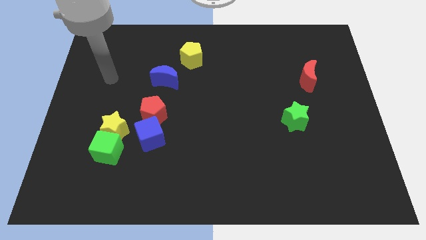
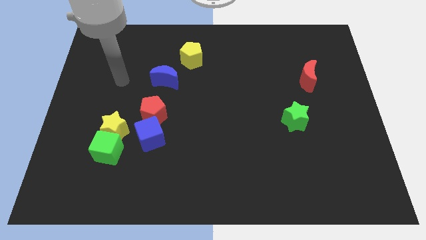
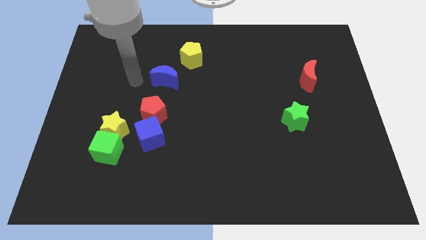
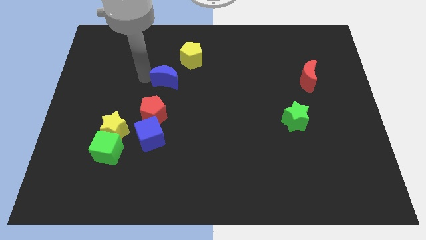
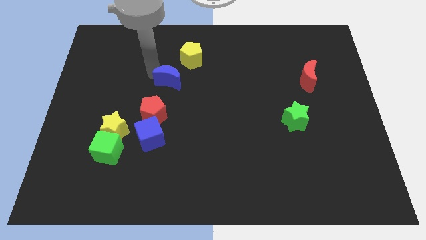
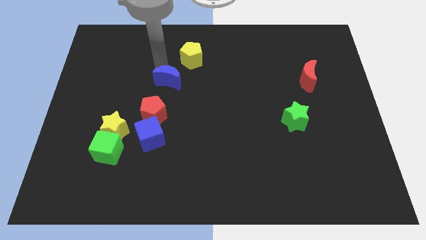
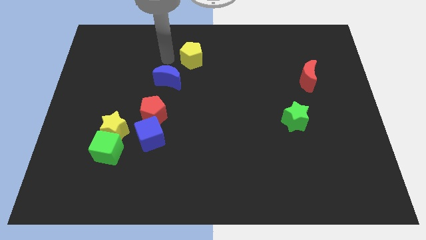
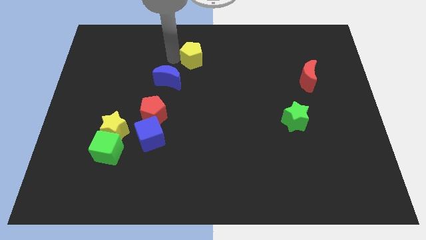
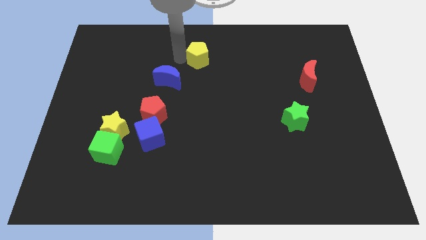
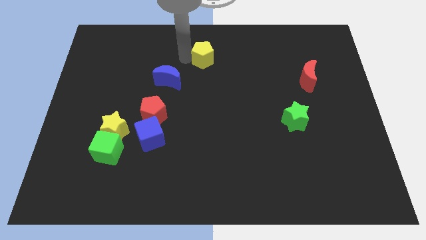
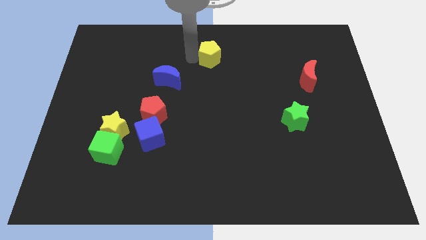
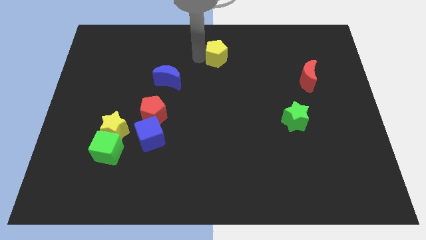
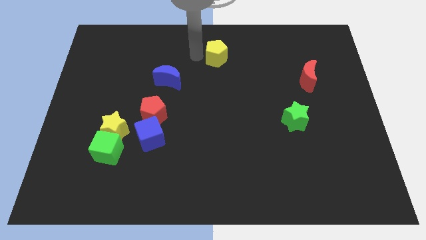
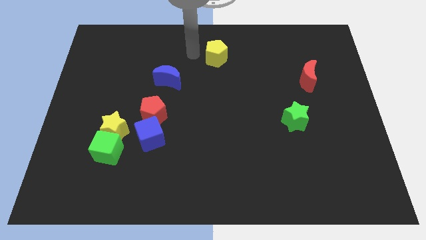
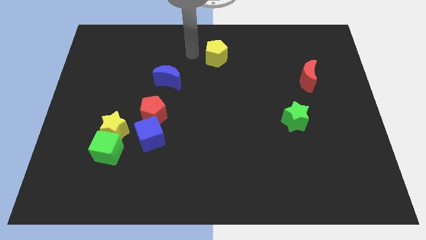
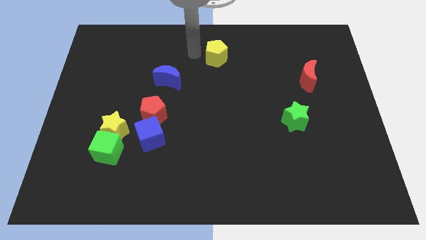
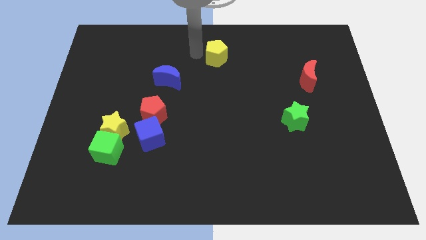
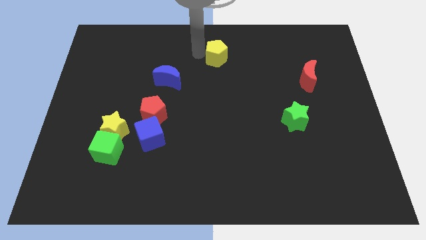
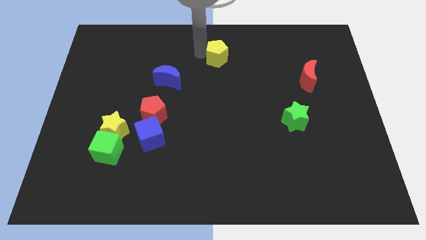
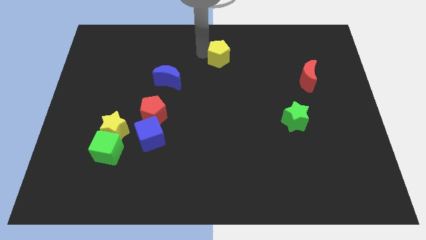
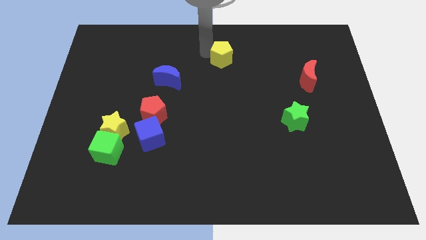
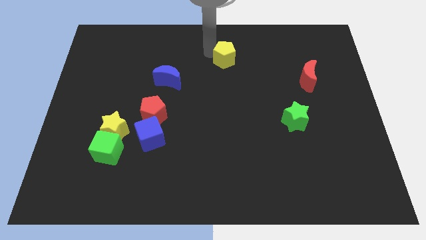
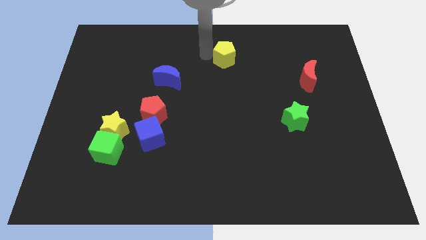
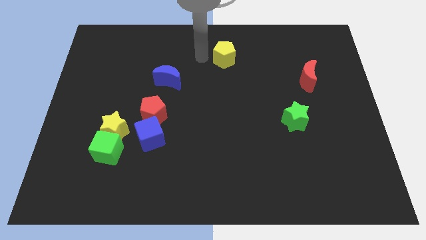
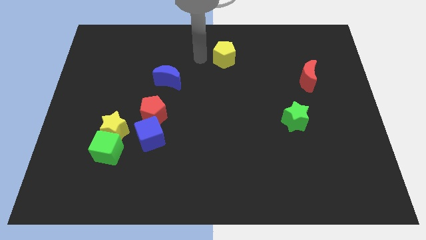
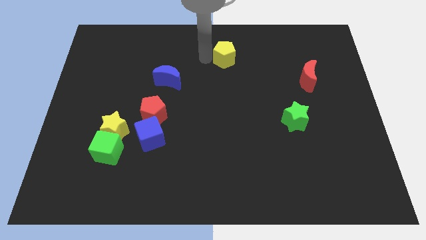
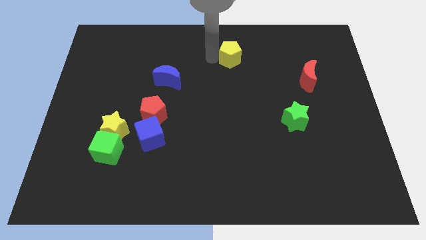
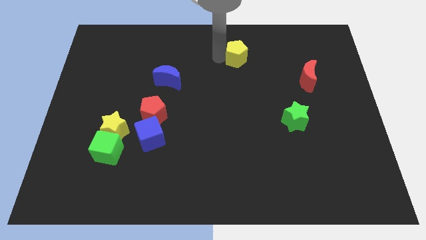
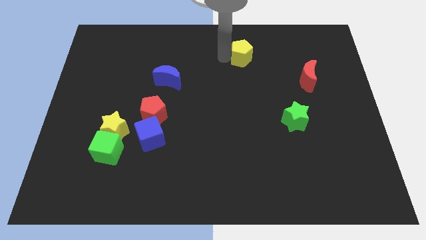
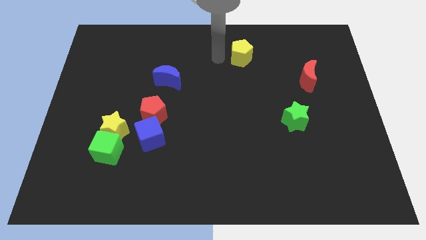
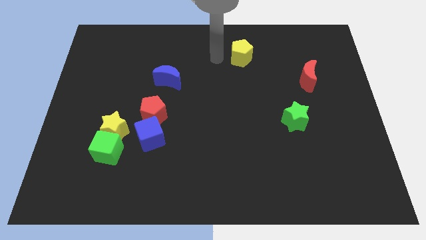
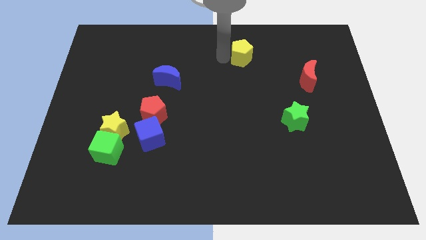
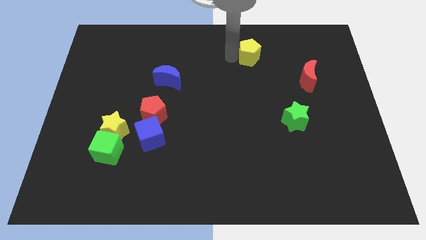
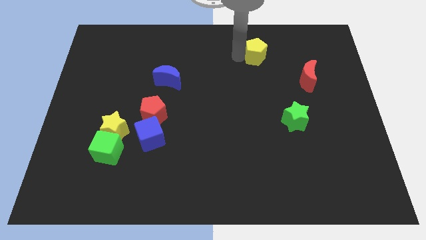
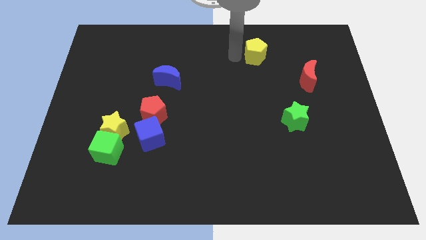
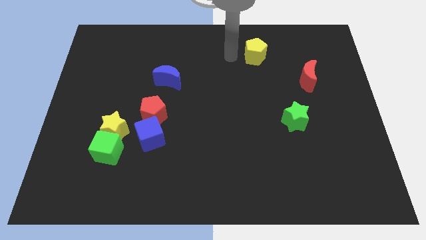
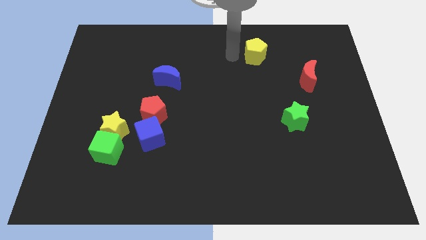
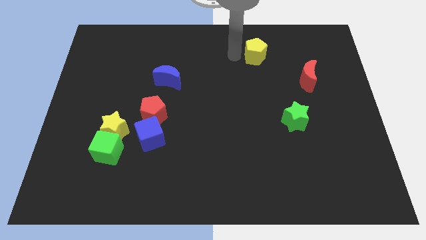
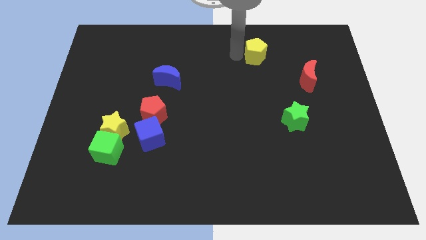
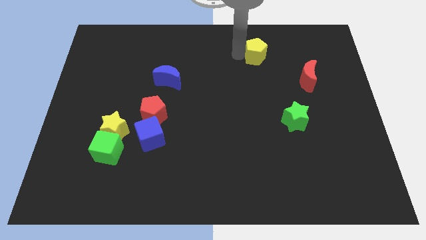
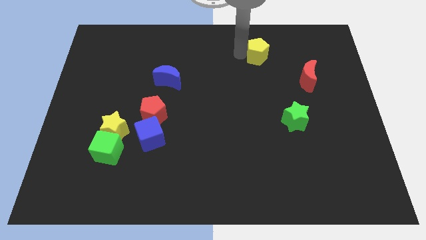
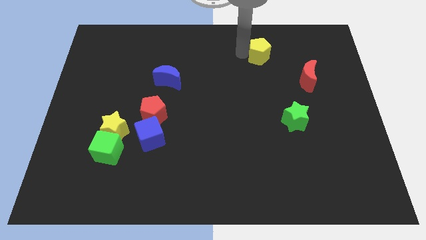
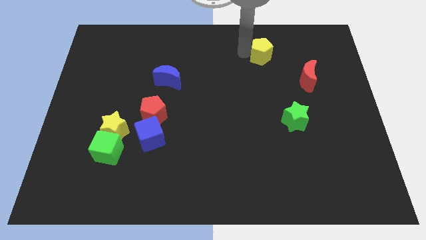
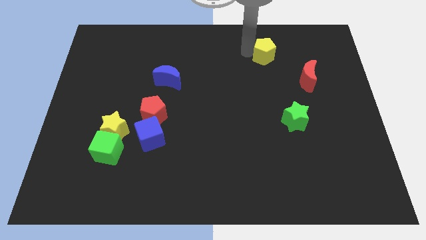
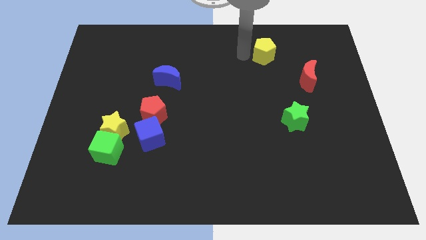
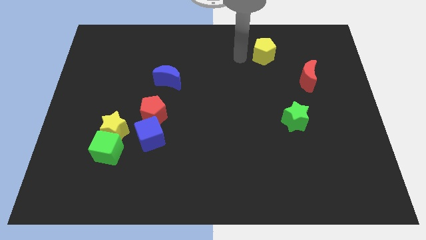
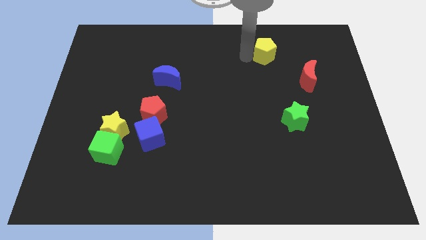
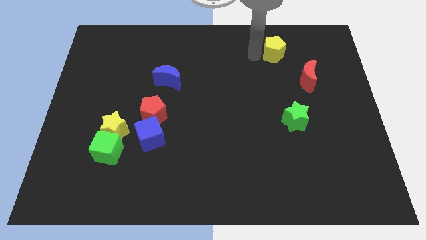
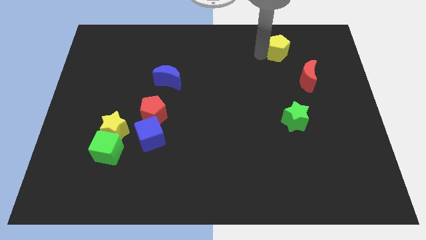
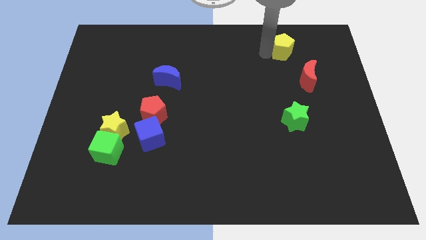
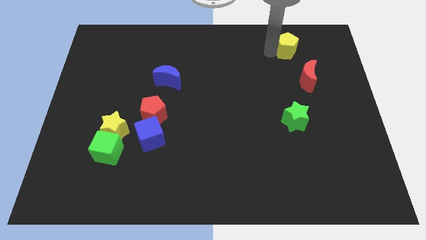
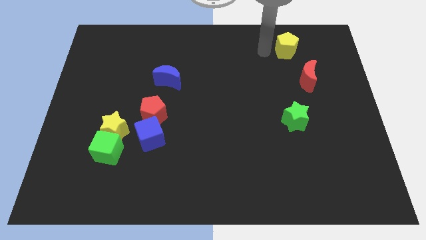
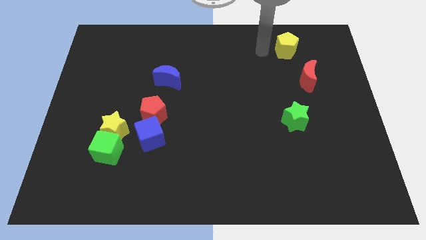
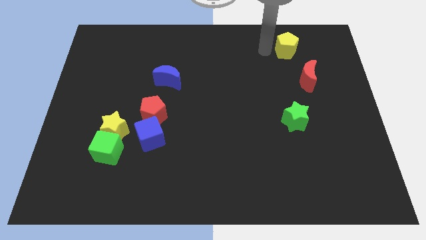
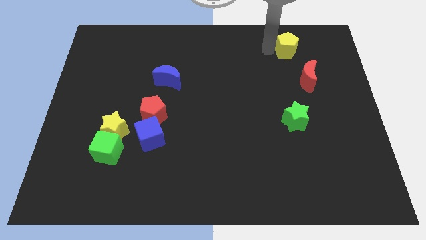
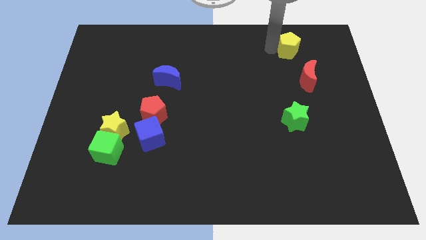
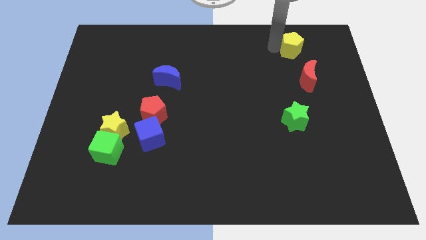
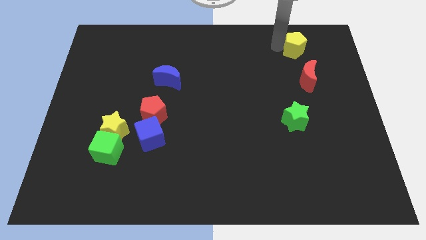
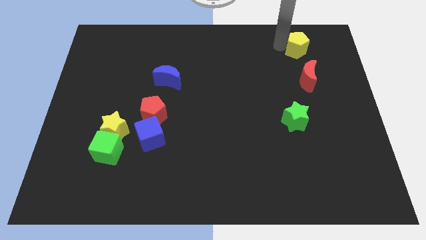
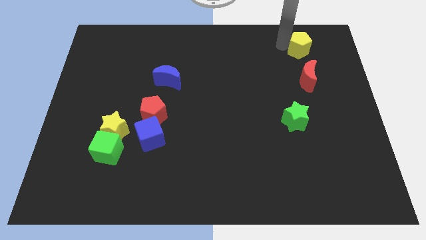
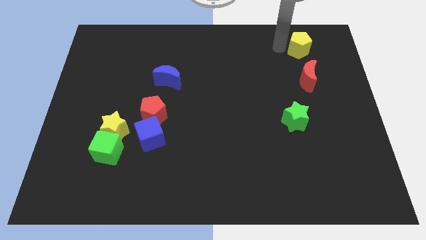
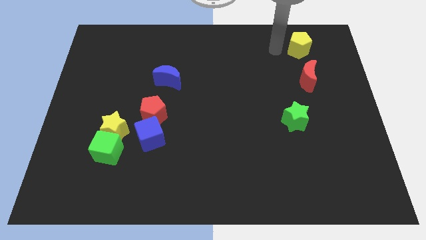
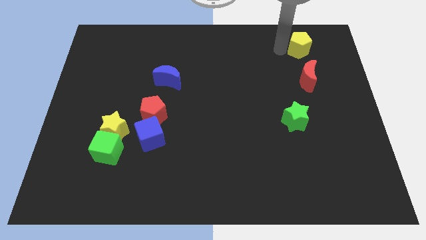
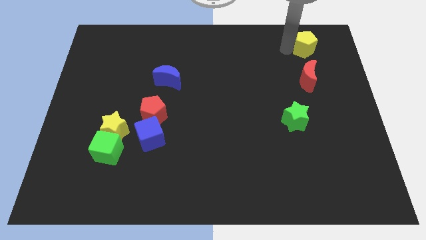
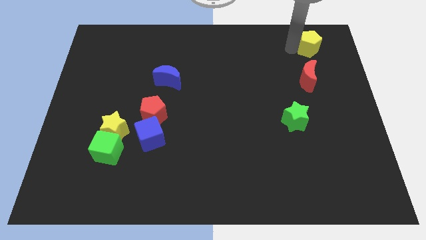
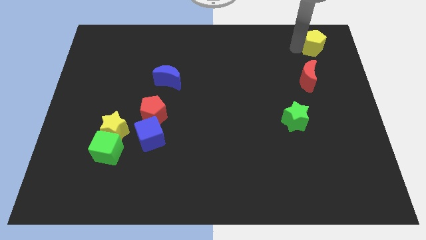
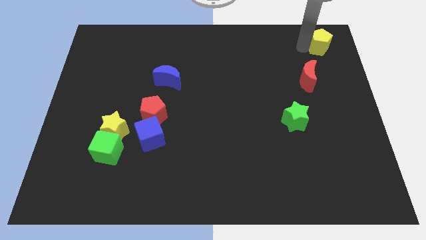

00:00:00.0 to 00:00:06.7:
put the yellow pentagon to the top right of the board
